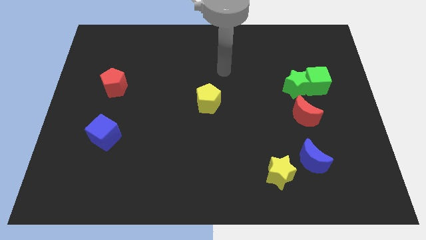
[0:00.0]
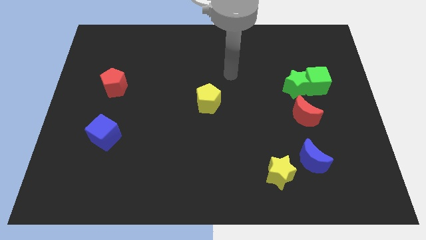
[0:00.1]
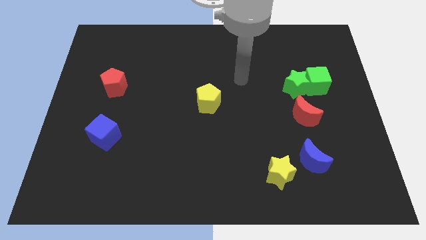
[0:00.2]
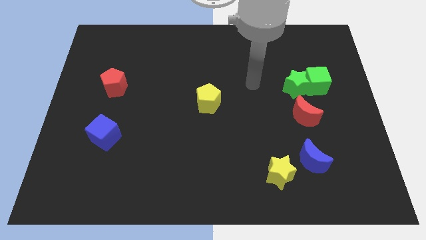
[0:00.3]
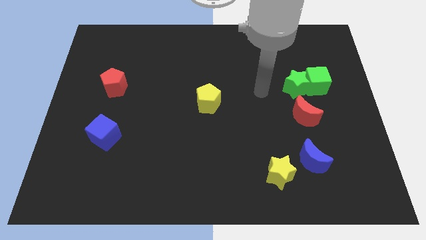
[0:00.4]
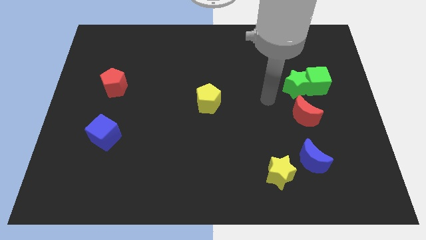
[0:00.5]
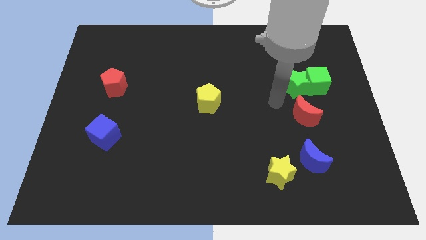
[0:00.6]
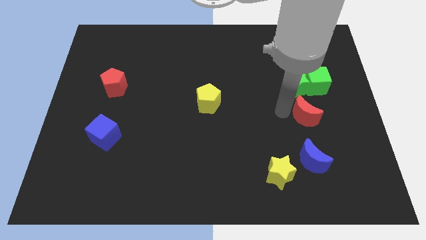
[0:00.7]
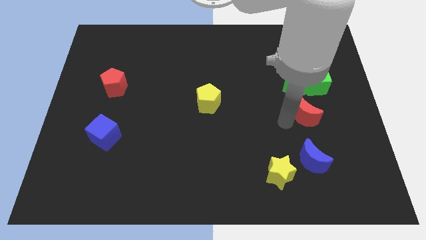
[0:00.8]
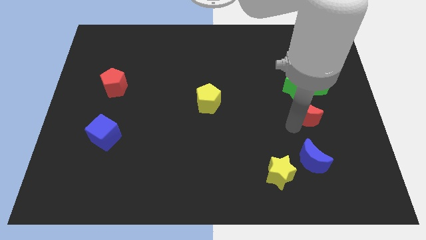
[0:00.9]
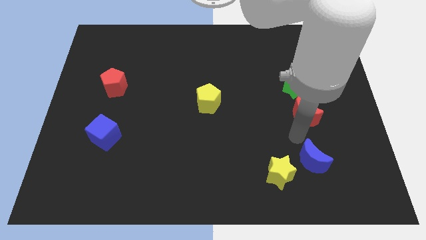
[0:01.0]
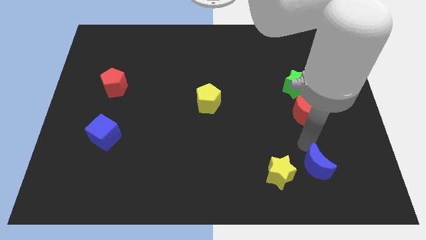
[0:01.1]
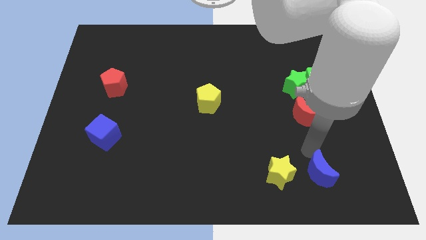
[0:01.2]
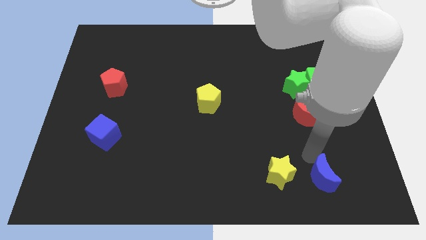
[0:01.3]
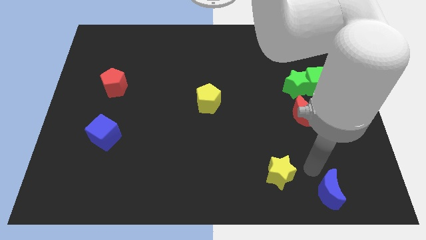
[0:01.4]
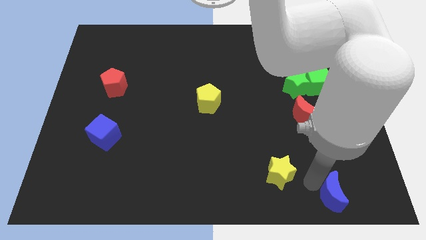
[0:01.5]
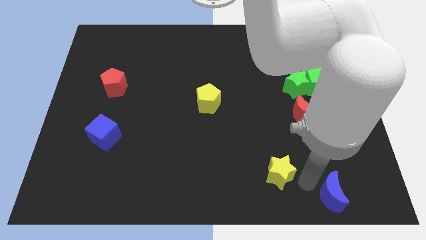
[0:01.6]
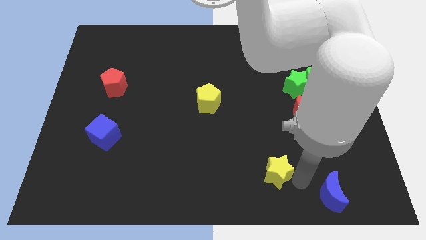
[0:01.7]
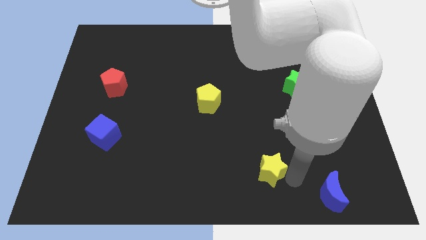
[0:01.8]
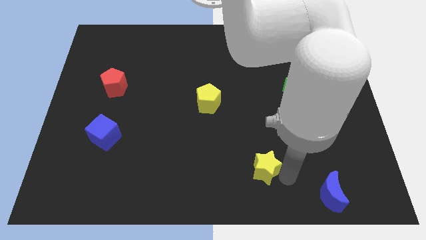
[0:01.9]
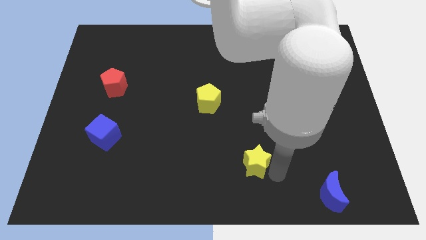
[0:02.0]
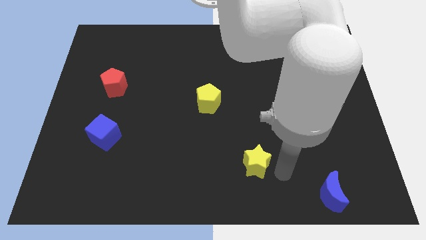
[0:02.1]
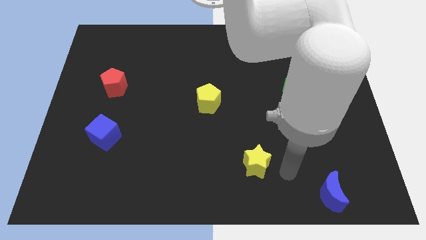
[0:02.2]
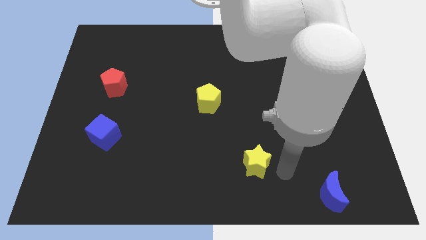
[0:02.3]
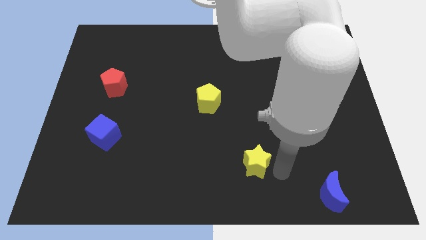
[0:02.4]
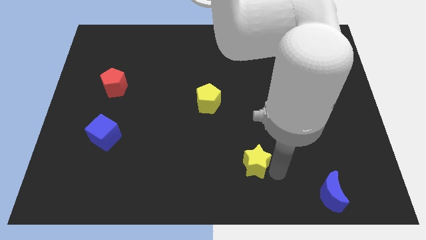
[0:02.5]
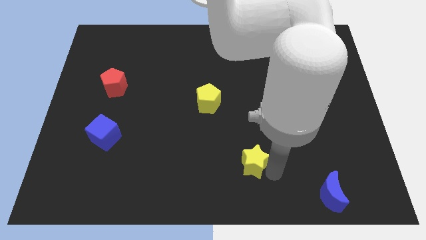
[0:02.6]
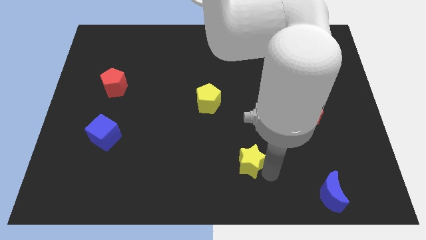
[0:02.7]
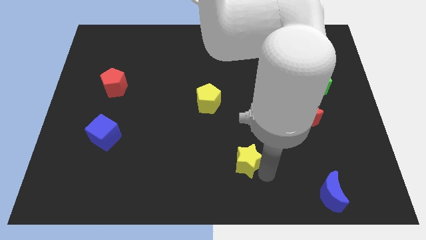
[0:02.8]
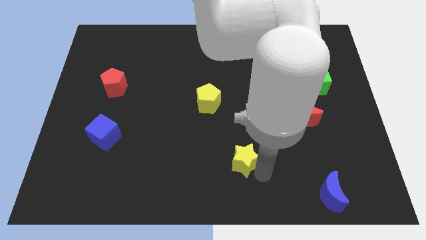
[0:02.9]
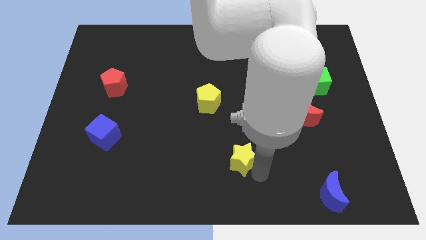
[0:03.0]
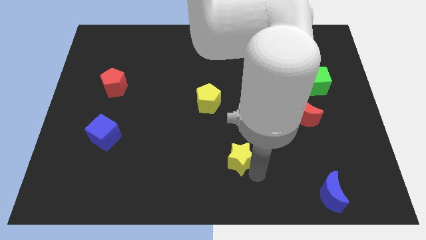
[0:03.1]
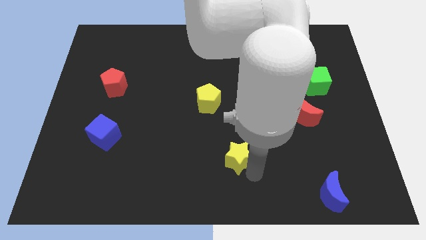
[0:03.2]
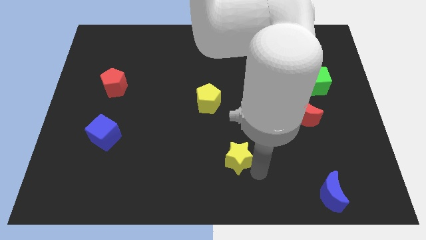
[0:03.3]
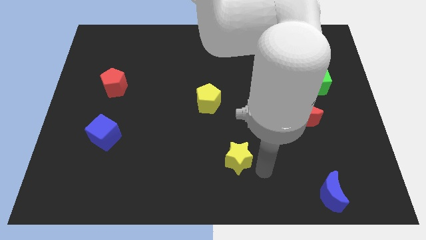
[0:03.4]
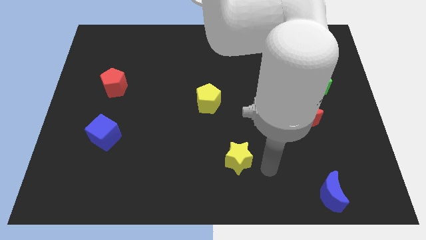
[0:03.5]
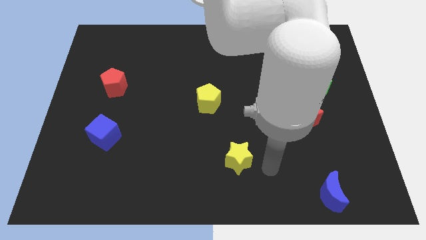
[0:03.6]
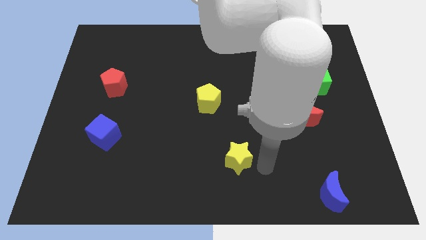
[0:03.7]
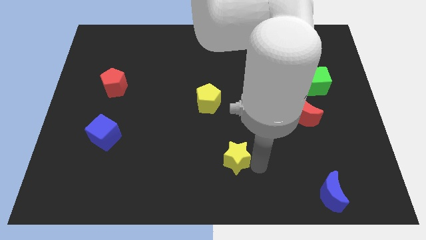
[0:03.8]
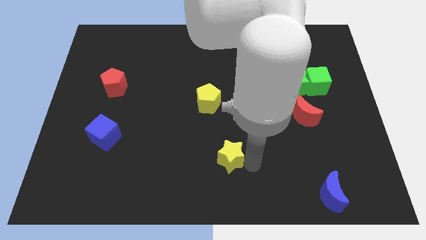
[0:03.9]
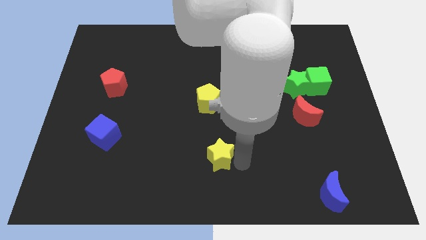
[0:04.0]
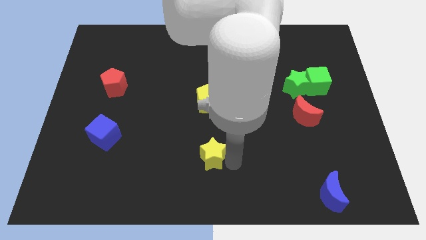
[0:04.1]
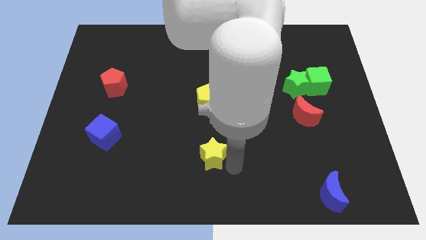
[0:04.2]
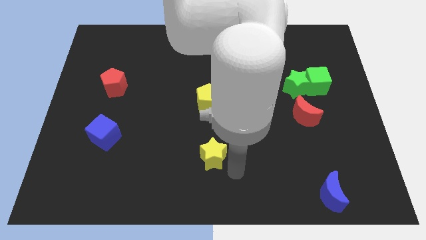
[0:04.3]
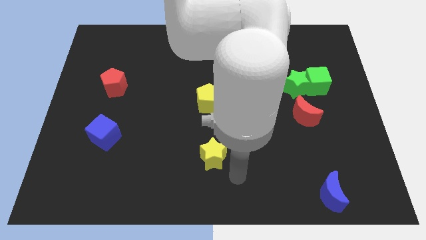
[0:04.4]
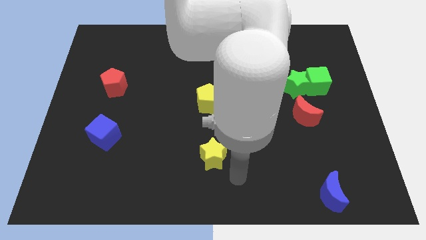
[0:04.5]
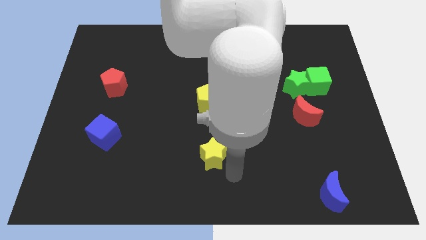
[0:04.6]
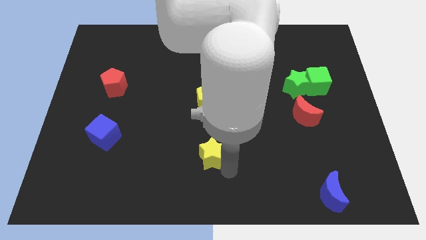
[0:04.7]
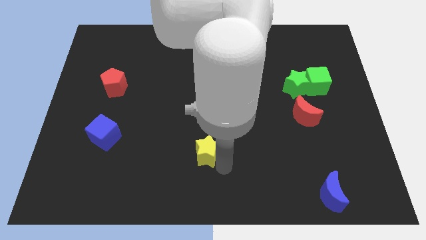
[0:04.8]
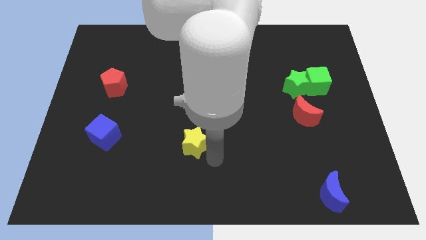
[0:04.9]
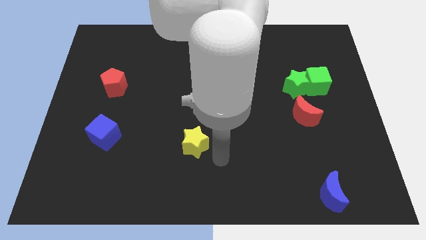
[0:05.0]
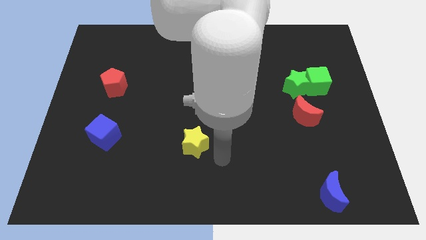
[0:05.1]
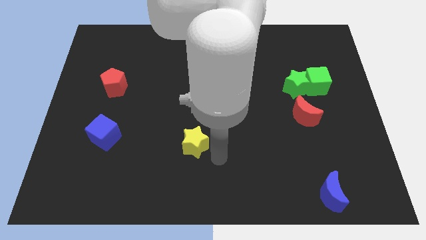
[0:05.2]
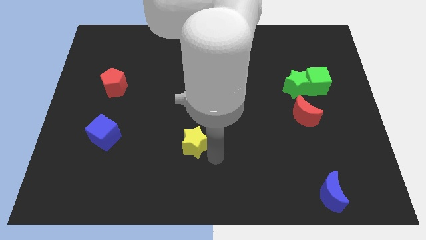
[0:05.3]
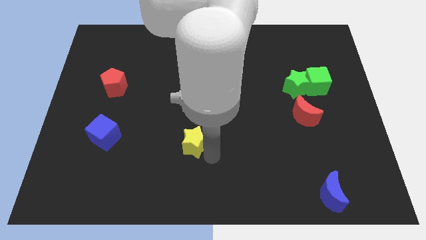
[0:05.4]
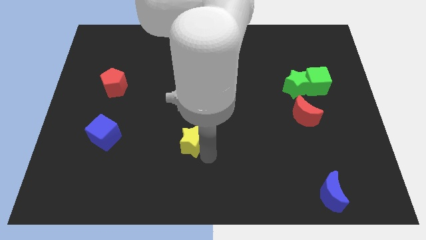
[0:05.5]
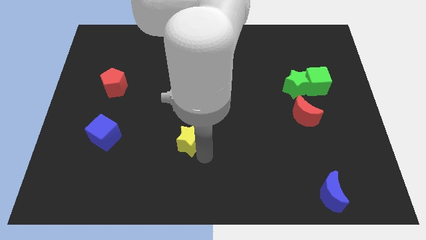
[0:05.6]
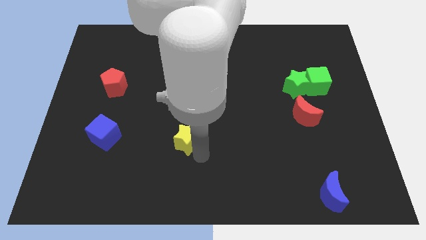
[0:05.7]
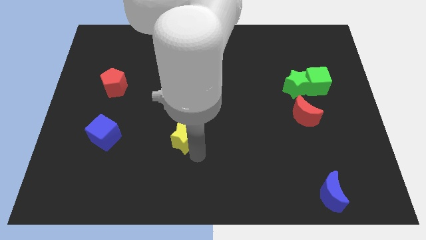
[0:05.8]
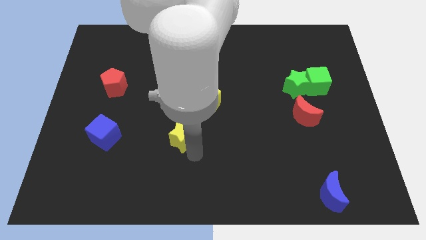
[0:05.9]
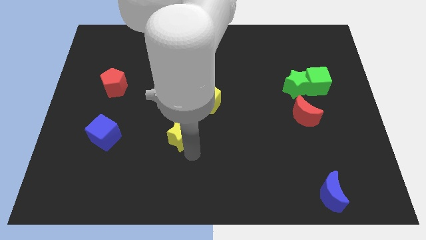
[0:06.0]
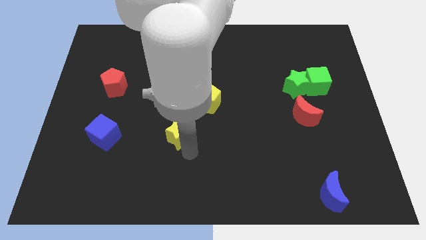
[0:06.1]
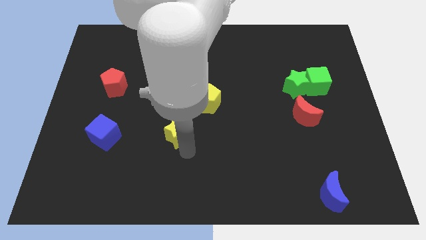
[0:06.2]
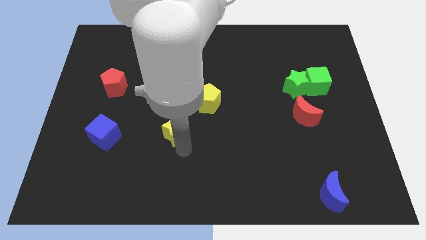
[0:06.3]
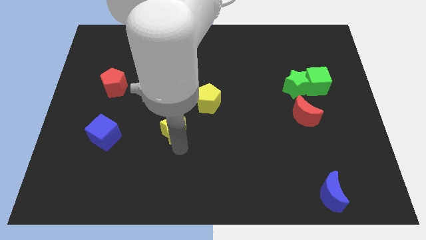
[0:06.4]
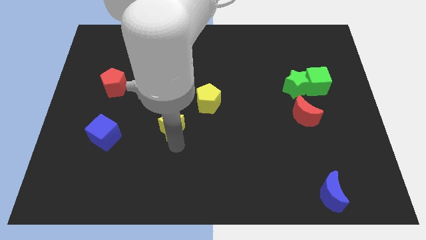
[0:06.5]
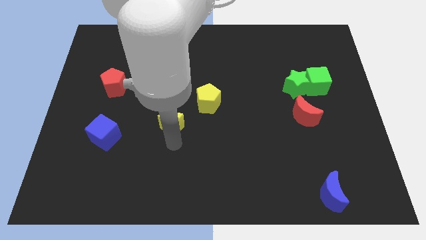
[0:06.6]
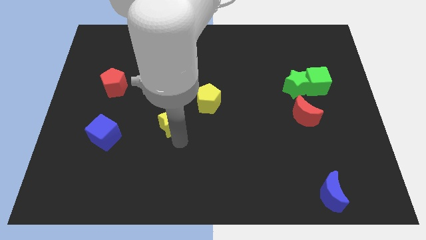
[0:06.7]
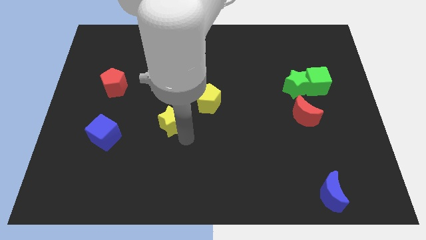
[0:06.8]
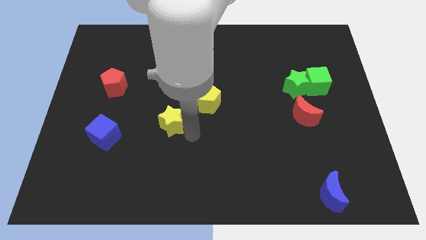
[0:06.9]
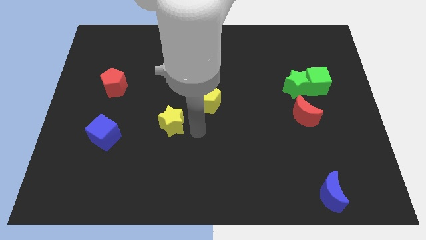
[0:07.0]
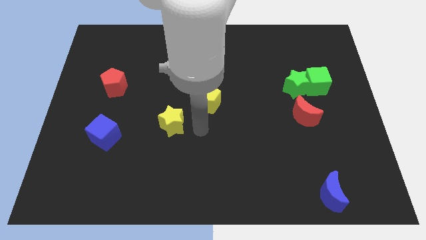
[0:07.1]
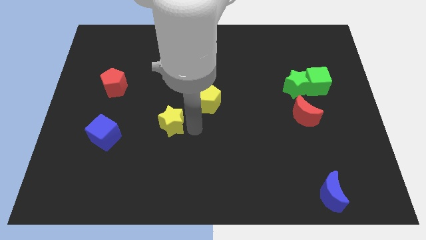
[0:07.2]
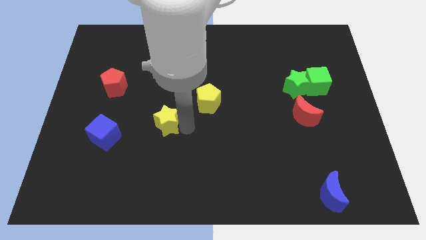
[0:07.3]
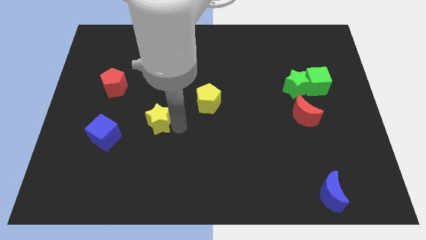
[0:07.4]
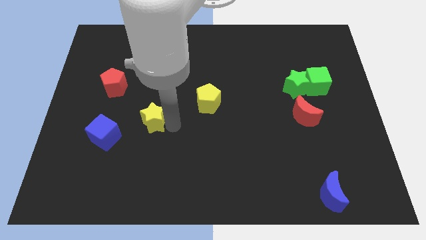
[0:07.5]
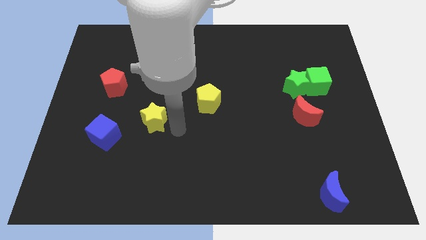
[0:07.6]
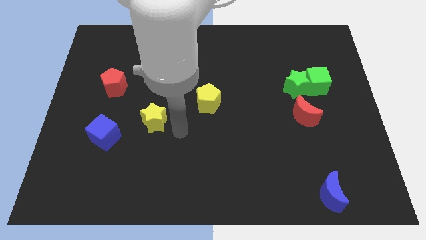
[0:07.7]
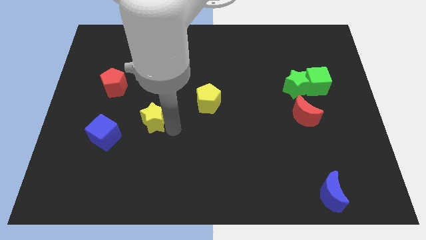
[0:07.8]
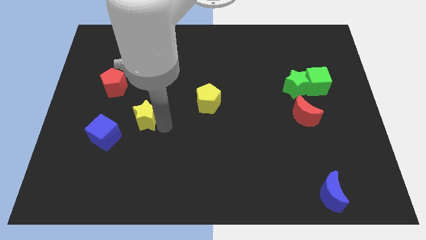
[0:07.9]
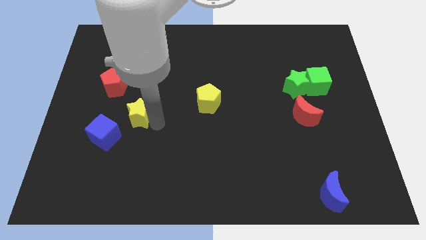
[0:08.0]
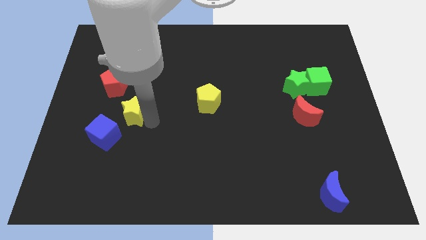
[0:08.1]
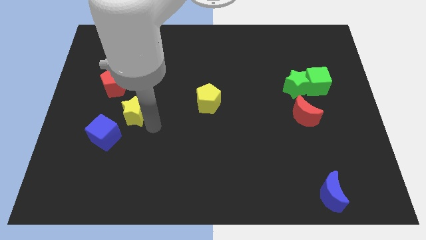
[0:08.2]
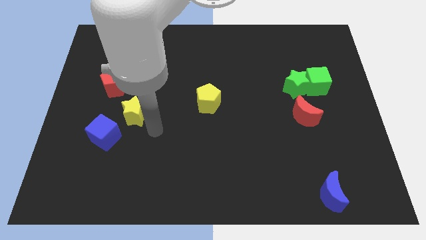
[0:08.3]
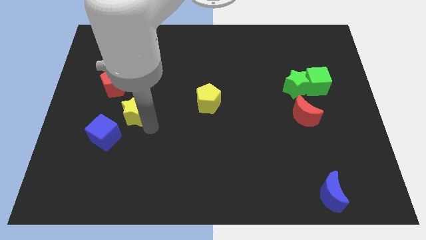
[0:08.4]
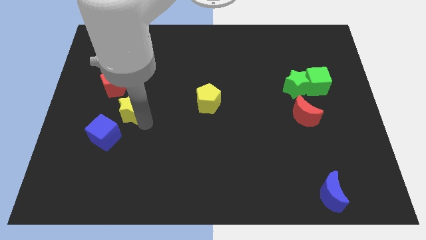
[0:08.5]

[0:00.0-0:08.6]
push the yellow star to the top of the blue cube
